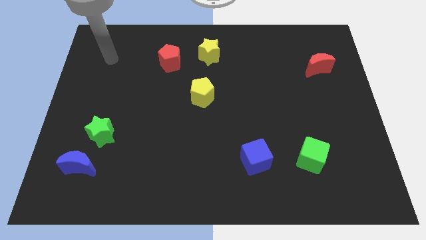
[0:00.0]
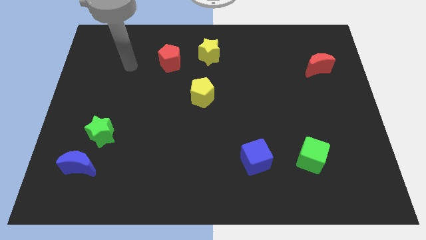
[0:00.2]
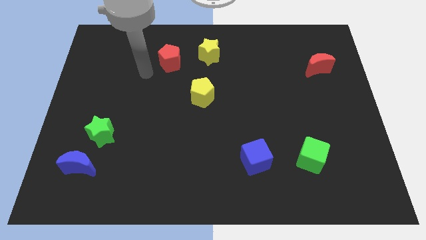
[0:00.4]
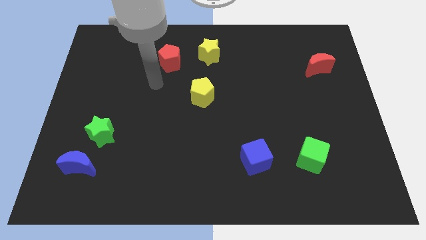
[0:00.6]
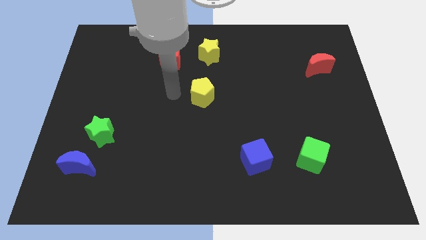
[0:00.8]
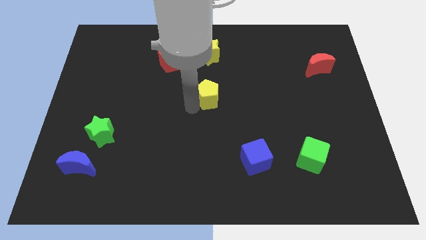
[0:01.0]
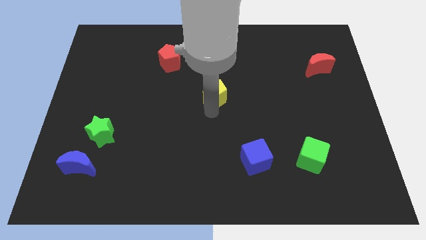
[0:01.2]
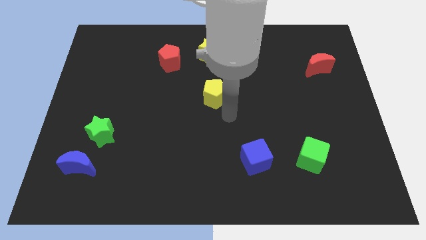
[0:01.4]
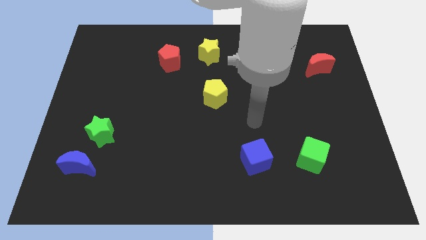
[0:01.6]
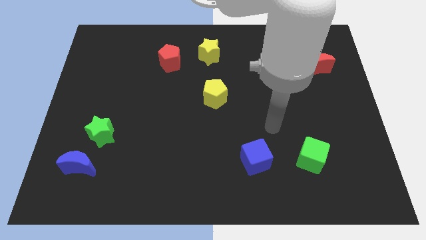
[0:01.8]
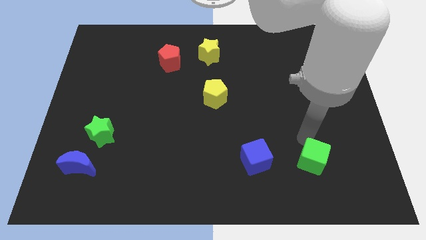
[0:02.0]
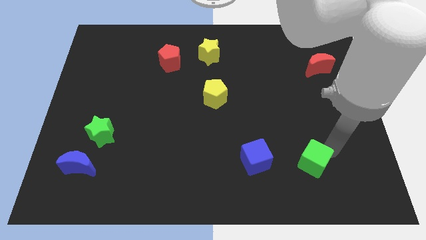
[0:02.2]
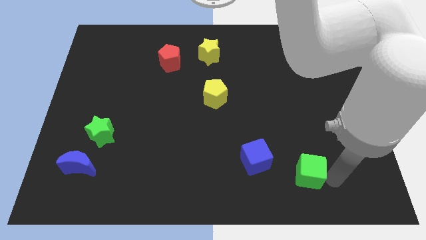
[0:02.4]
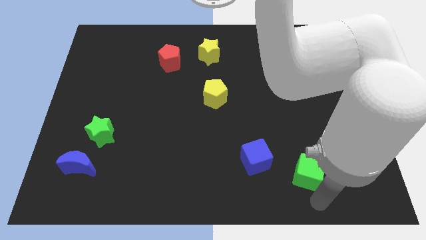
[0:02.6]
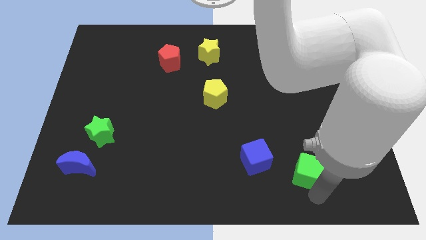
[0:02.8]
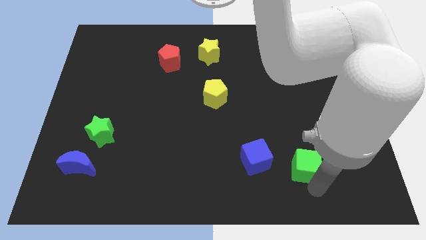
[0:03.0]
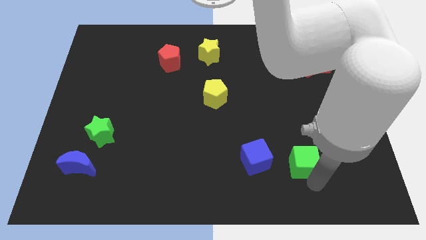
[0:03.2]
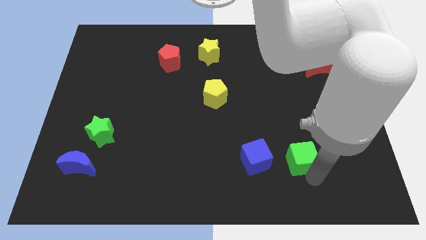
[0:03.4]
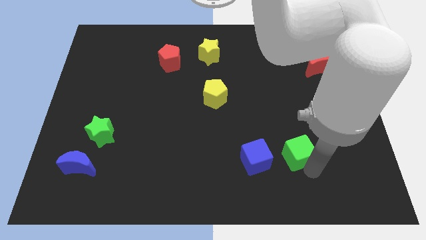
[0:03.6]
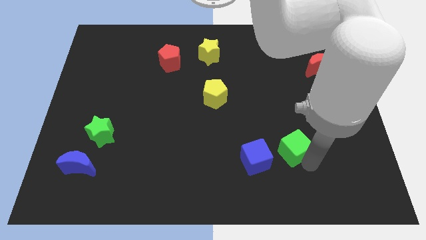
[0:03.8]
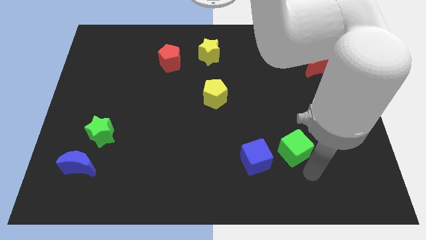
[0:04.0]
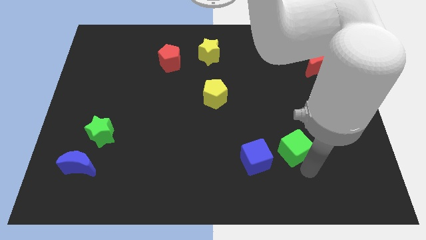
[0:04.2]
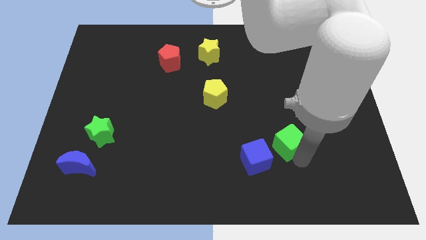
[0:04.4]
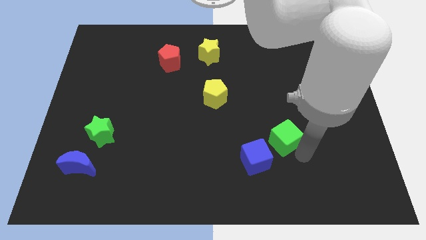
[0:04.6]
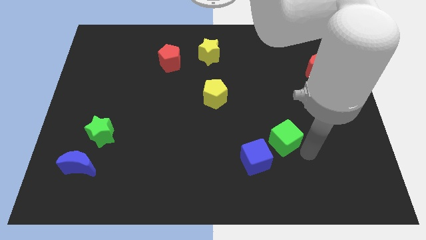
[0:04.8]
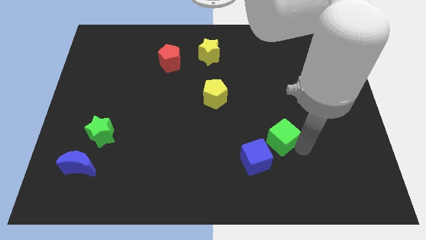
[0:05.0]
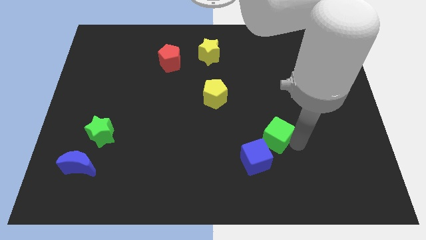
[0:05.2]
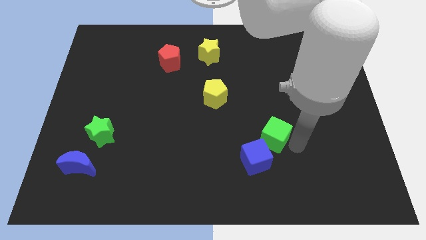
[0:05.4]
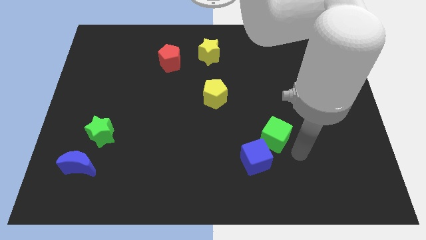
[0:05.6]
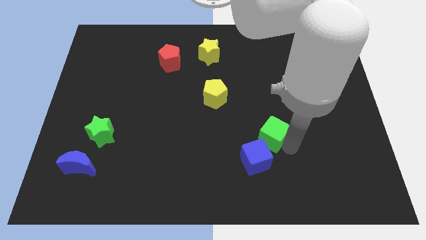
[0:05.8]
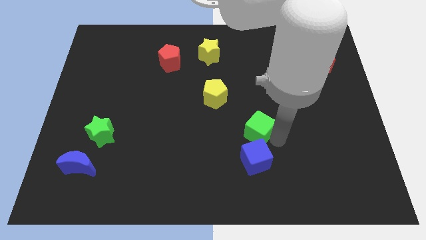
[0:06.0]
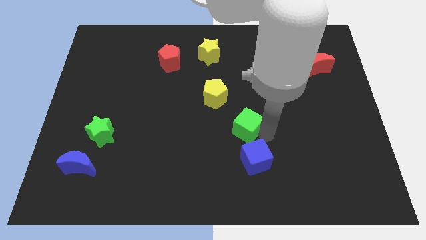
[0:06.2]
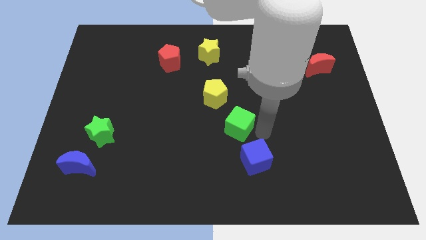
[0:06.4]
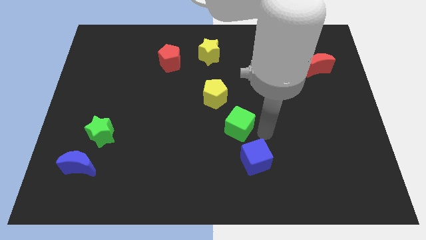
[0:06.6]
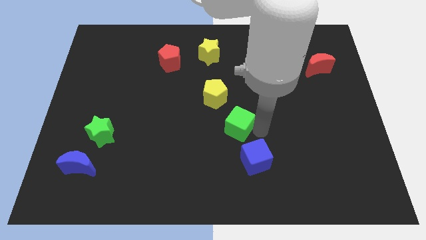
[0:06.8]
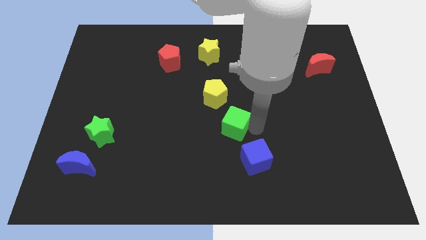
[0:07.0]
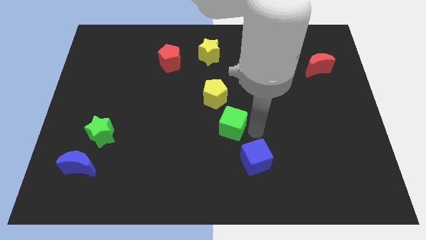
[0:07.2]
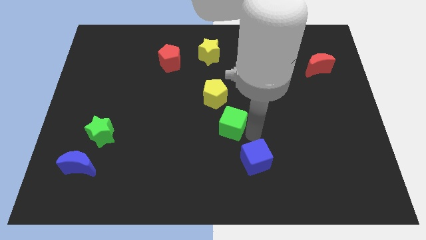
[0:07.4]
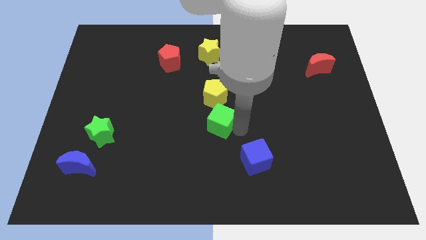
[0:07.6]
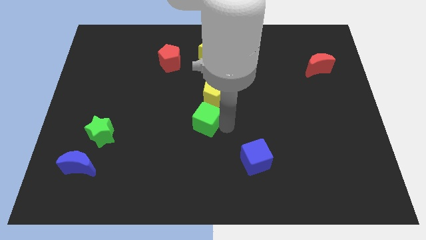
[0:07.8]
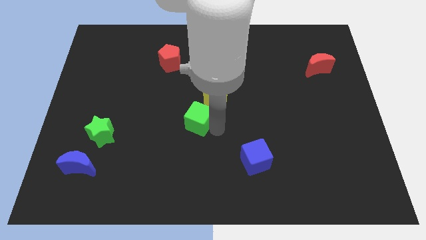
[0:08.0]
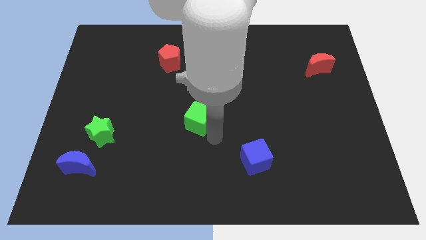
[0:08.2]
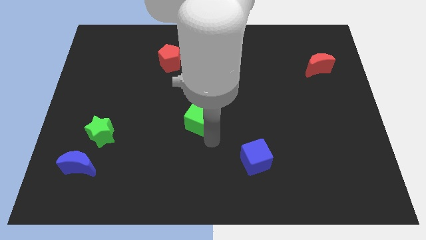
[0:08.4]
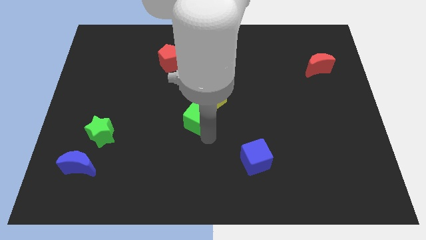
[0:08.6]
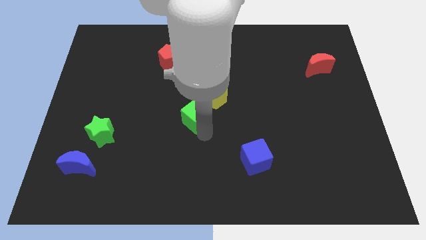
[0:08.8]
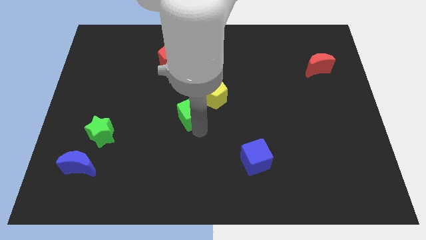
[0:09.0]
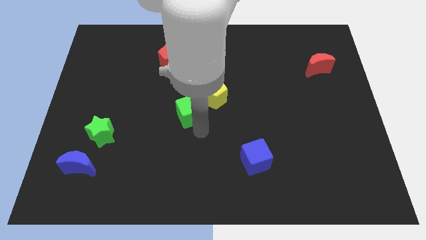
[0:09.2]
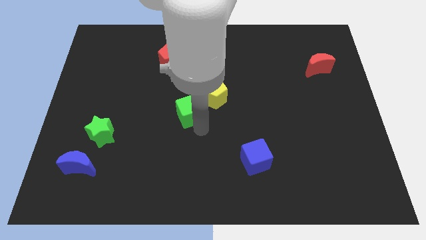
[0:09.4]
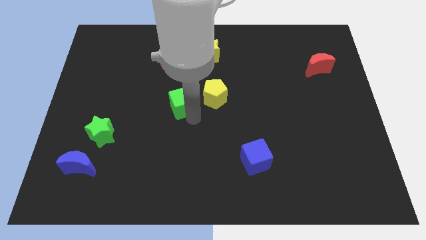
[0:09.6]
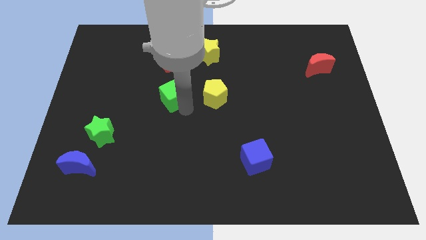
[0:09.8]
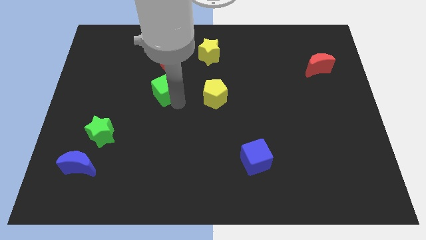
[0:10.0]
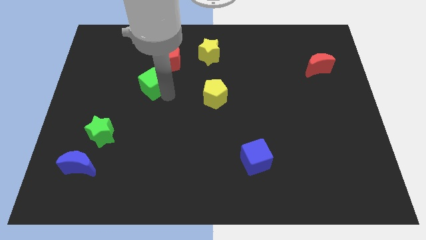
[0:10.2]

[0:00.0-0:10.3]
push the green cube diagonally down and to the left of the red pentagon

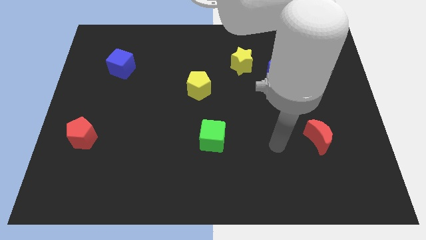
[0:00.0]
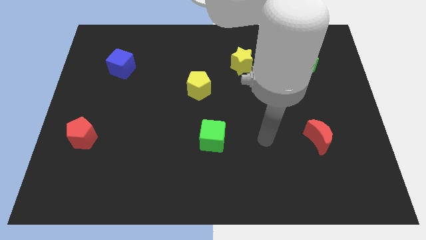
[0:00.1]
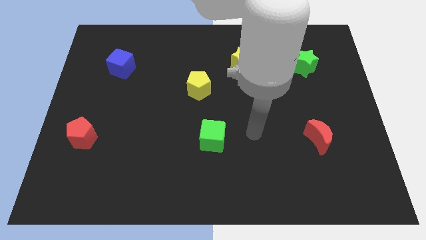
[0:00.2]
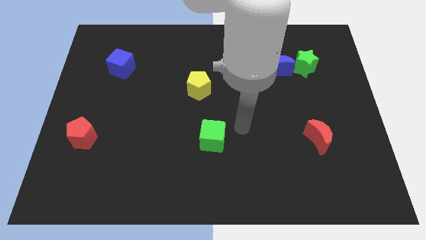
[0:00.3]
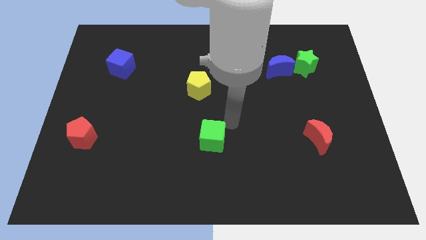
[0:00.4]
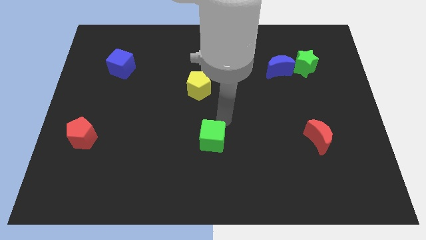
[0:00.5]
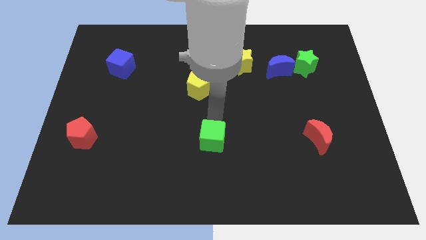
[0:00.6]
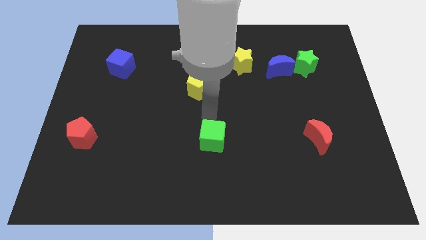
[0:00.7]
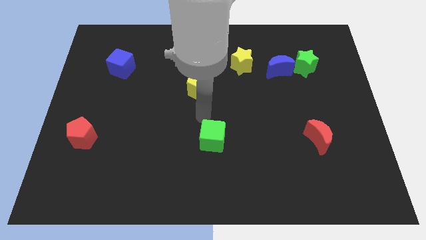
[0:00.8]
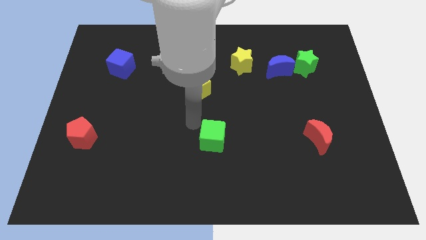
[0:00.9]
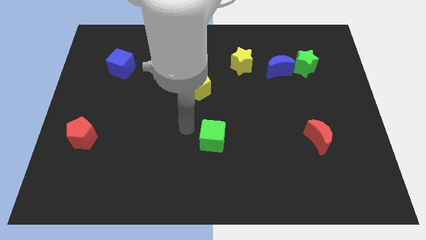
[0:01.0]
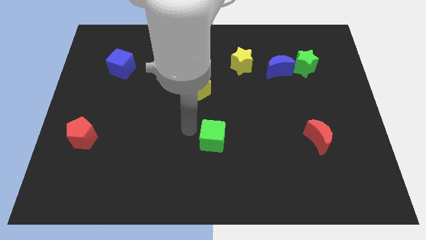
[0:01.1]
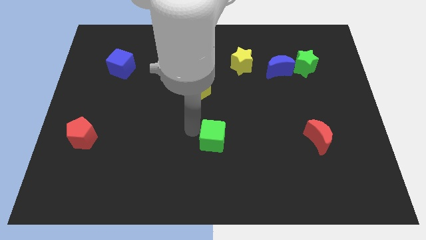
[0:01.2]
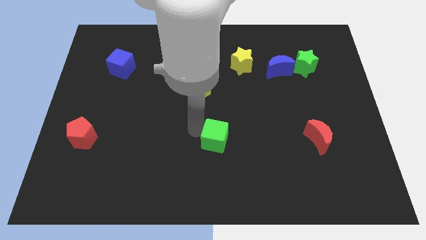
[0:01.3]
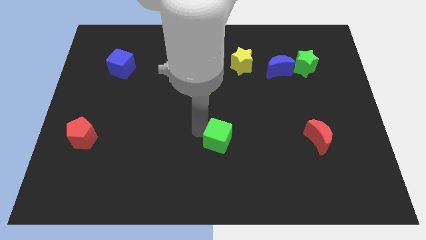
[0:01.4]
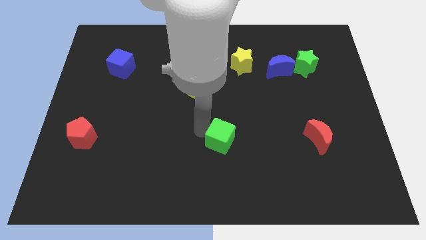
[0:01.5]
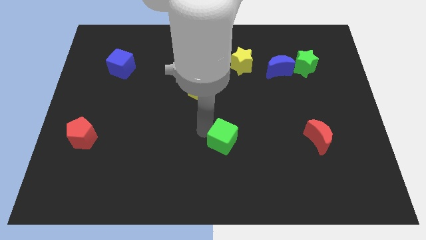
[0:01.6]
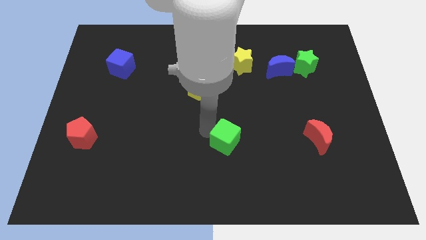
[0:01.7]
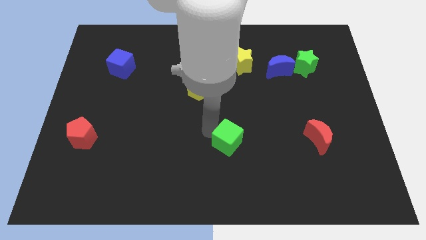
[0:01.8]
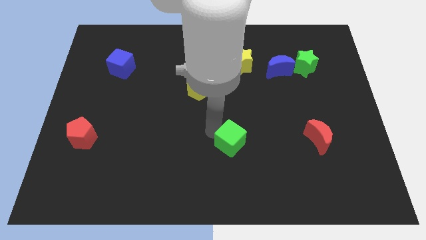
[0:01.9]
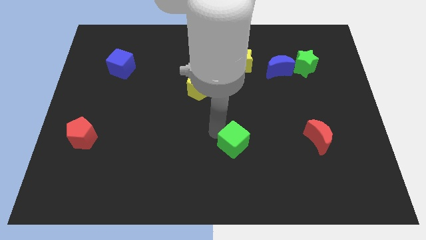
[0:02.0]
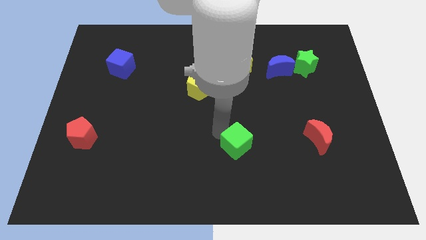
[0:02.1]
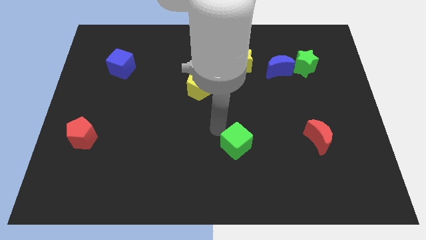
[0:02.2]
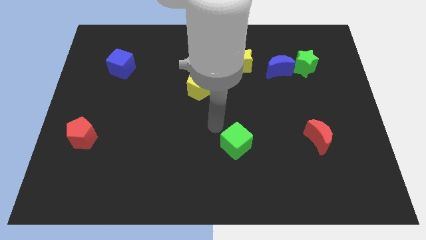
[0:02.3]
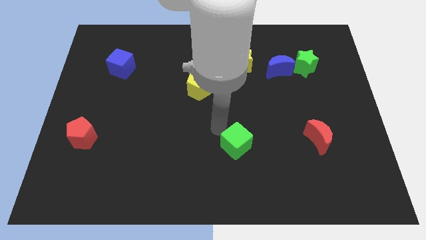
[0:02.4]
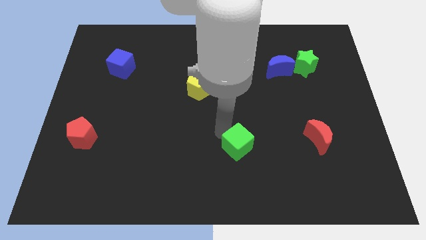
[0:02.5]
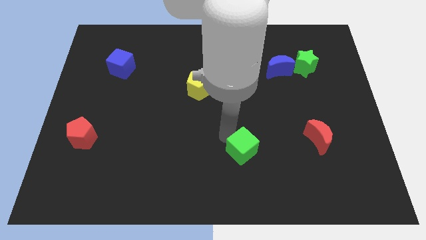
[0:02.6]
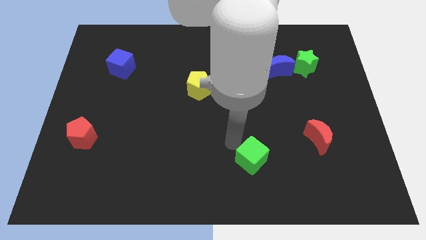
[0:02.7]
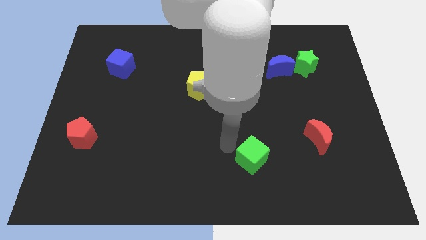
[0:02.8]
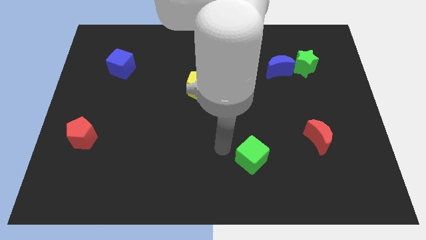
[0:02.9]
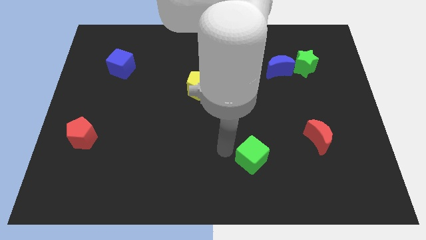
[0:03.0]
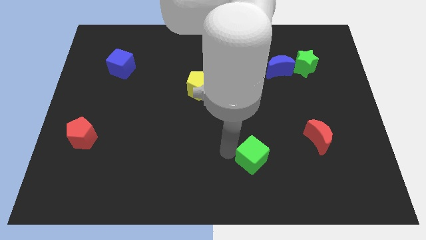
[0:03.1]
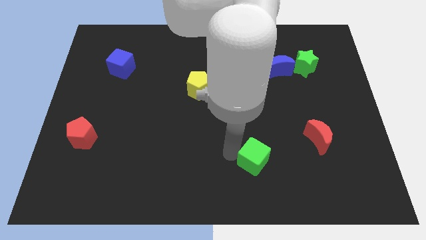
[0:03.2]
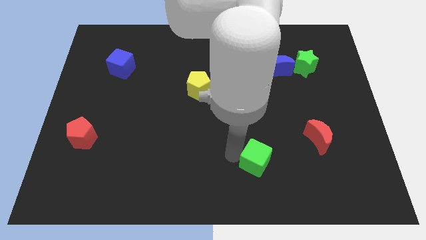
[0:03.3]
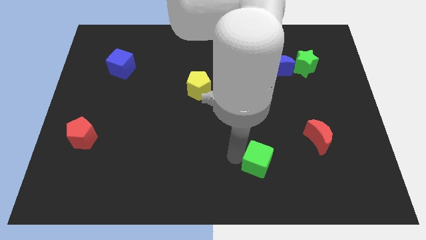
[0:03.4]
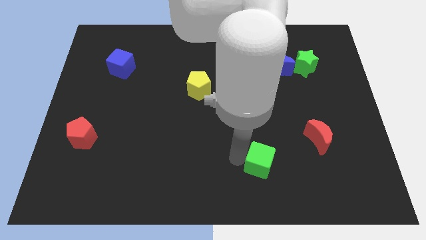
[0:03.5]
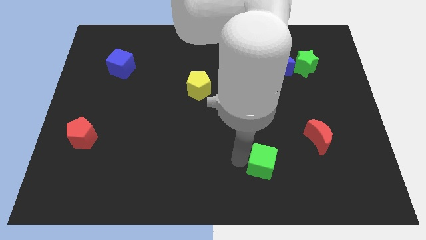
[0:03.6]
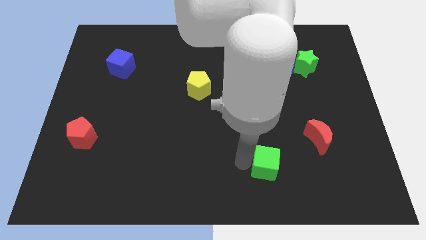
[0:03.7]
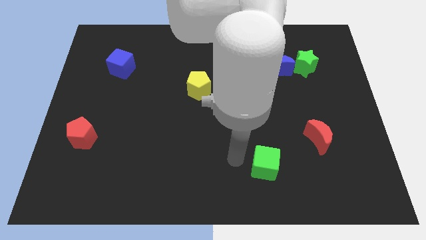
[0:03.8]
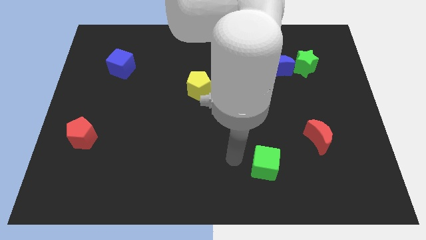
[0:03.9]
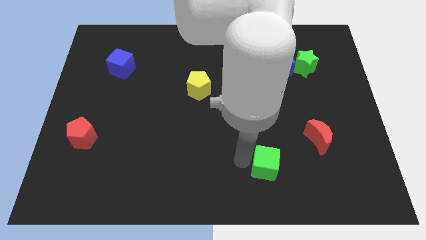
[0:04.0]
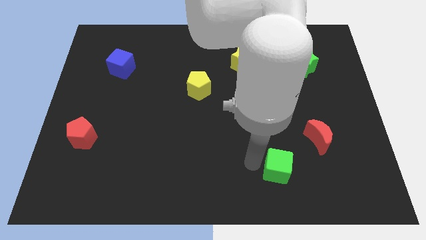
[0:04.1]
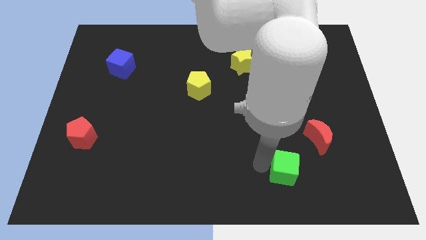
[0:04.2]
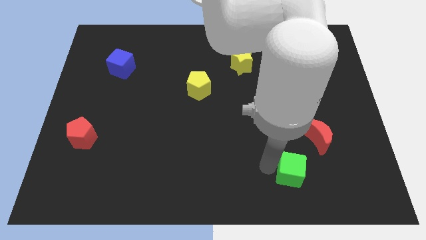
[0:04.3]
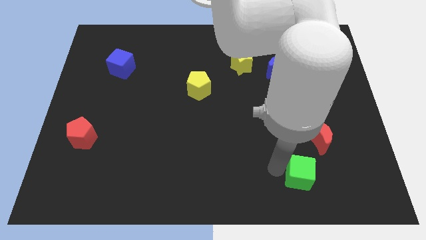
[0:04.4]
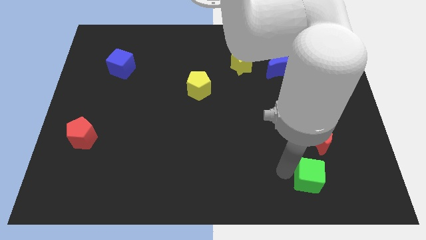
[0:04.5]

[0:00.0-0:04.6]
move the green cube to the bottom side of the red moon
